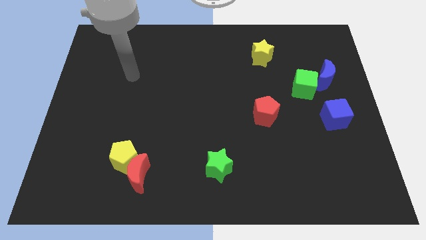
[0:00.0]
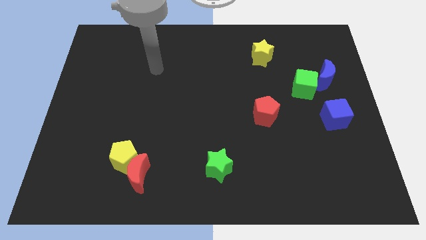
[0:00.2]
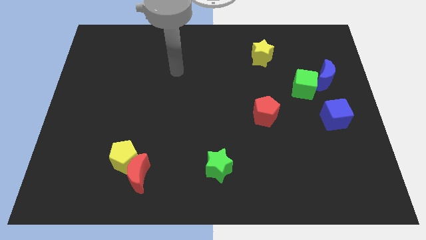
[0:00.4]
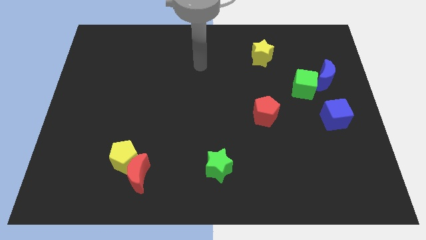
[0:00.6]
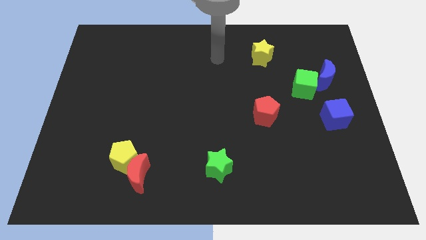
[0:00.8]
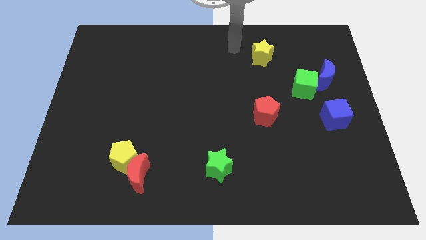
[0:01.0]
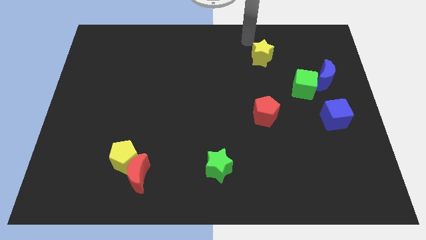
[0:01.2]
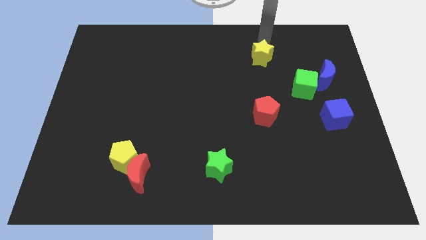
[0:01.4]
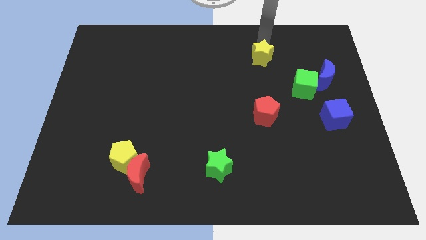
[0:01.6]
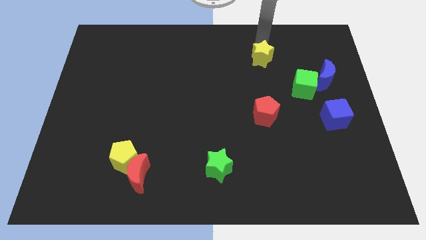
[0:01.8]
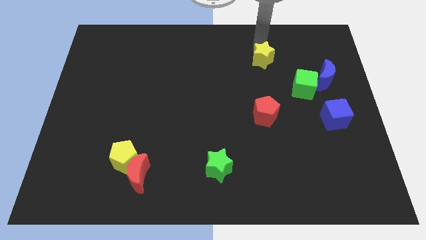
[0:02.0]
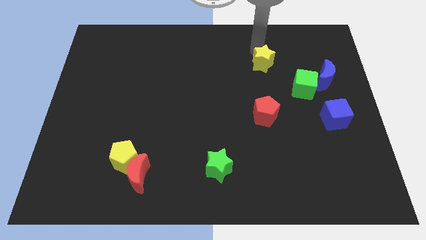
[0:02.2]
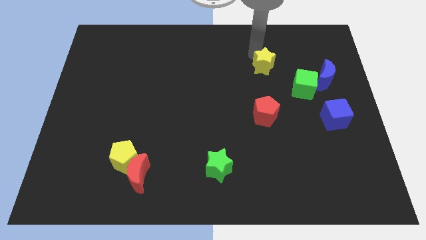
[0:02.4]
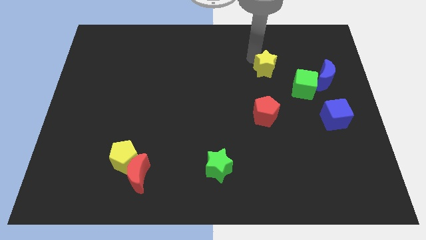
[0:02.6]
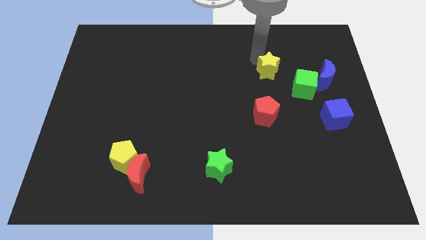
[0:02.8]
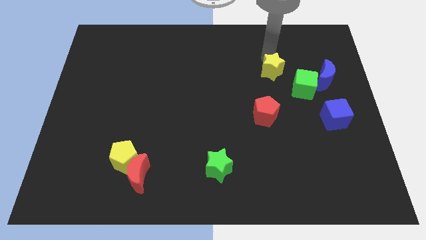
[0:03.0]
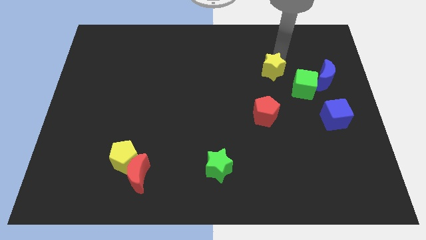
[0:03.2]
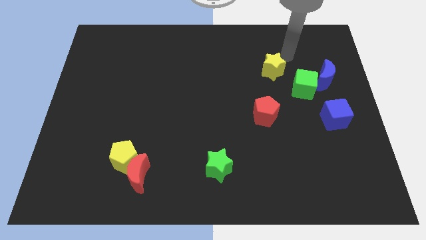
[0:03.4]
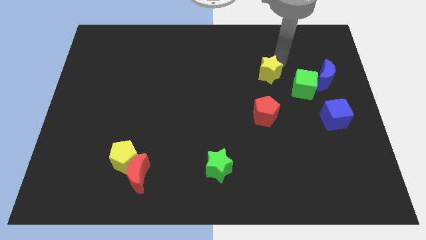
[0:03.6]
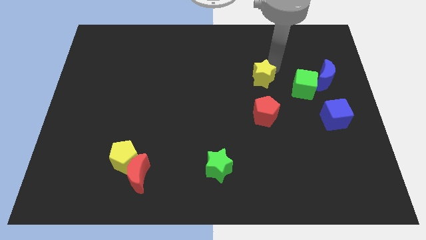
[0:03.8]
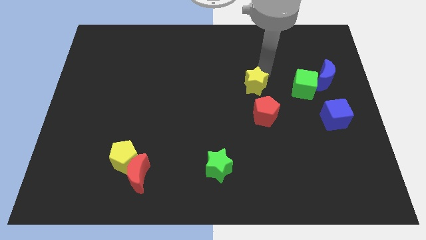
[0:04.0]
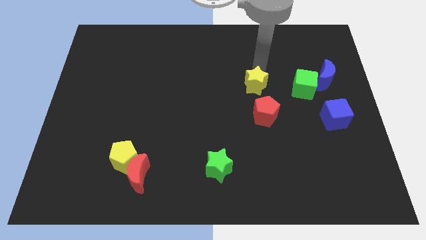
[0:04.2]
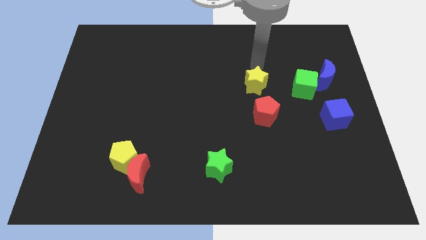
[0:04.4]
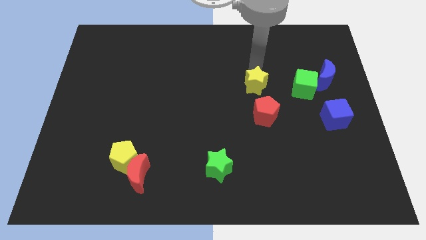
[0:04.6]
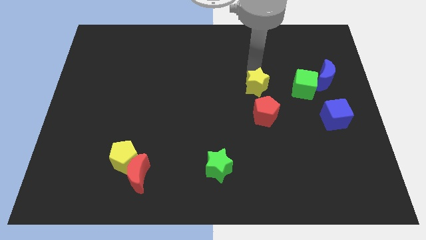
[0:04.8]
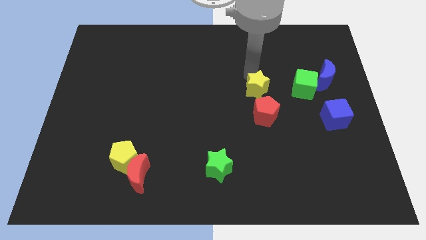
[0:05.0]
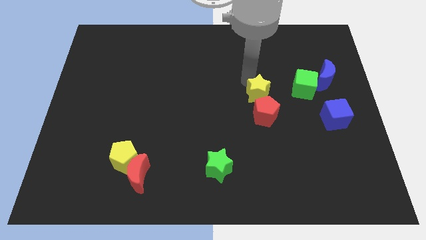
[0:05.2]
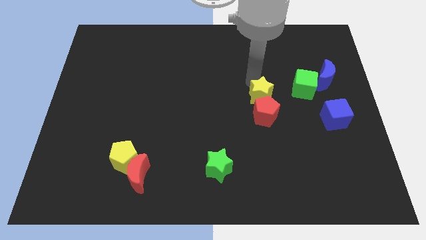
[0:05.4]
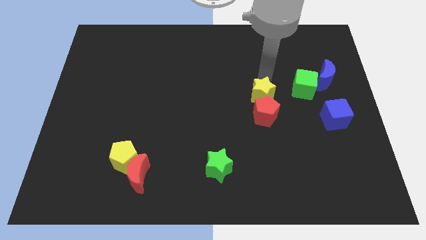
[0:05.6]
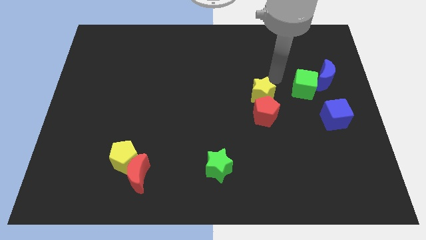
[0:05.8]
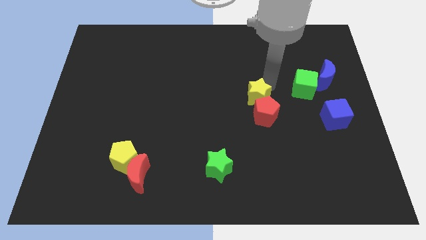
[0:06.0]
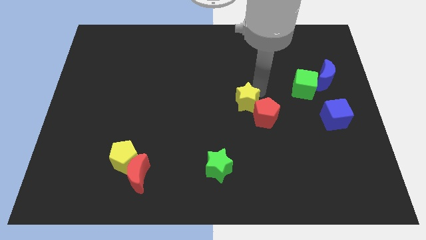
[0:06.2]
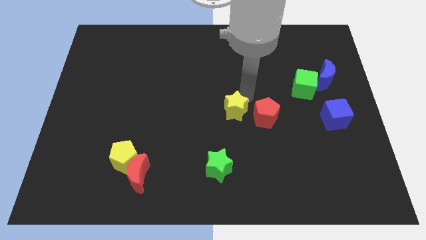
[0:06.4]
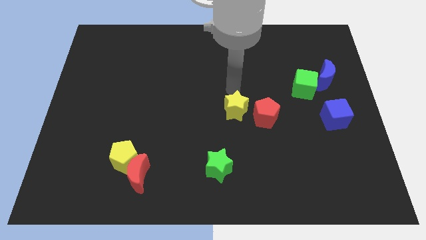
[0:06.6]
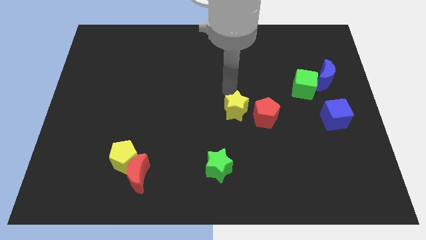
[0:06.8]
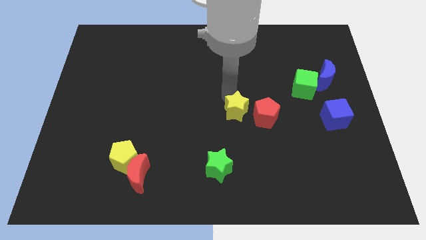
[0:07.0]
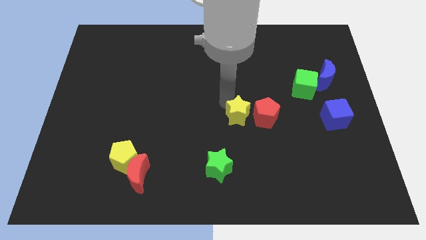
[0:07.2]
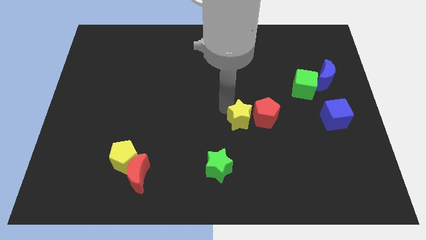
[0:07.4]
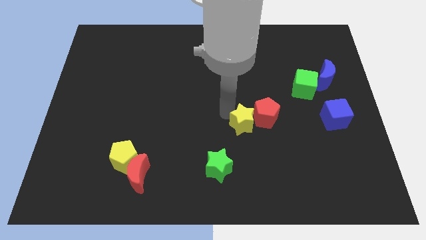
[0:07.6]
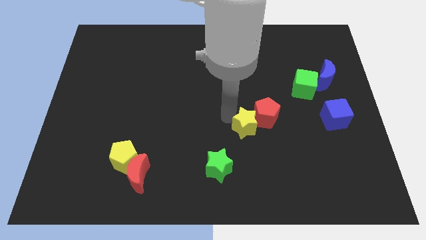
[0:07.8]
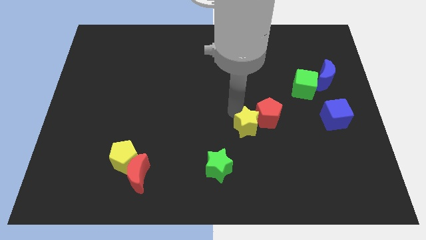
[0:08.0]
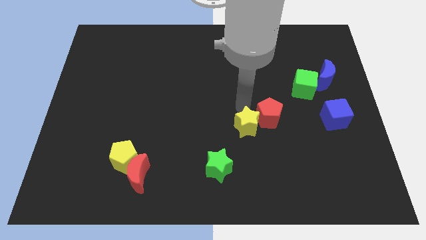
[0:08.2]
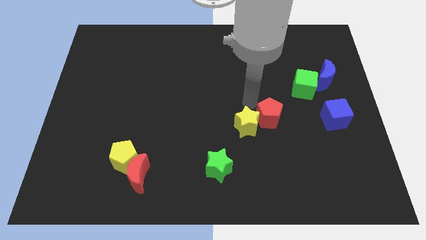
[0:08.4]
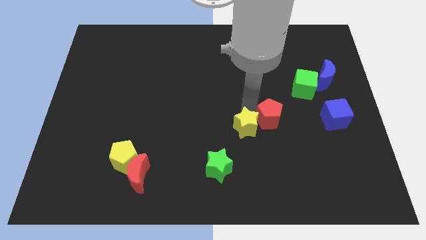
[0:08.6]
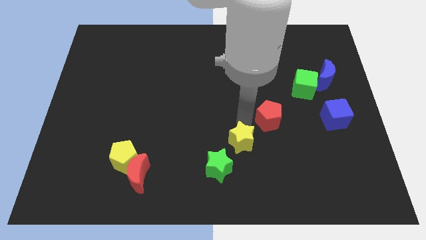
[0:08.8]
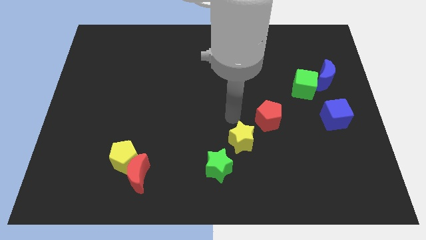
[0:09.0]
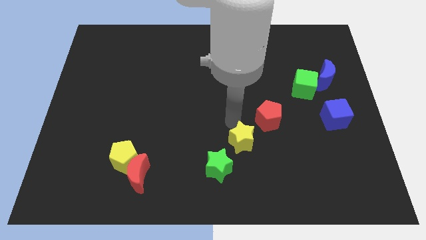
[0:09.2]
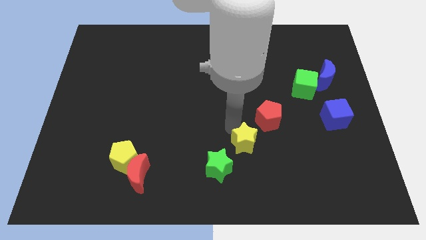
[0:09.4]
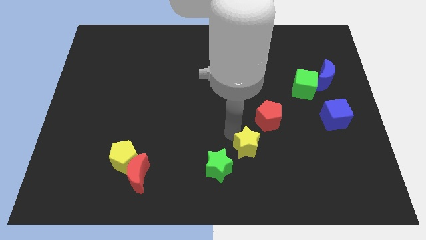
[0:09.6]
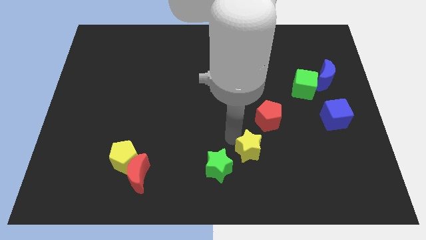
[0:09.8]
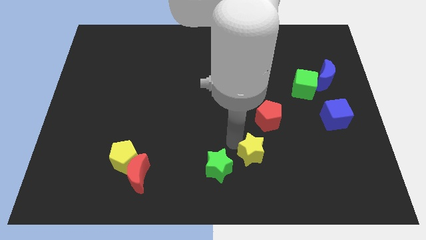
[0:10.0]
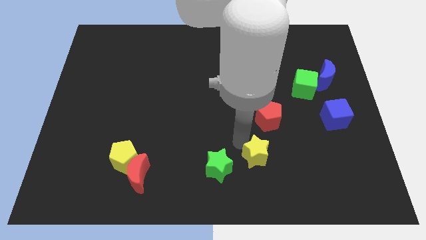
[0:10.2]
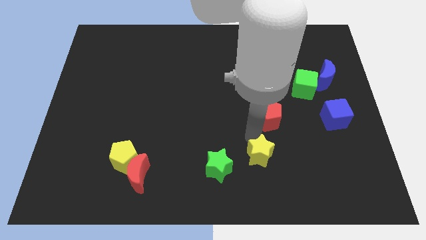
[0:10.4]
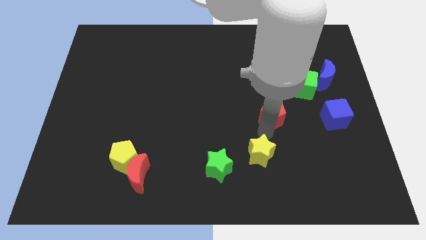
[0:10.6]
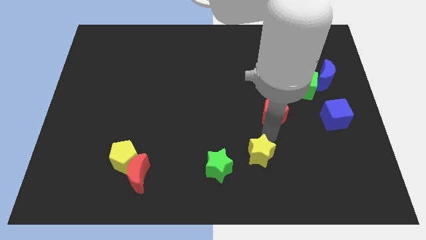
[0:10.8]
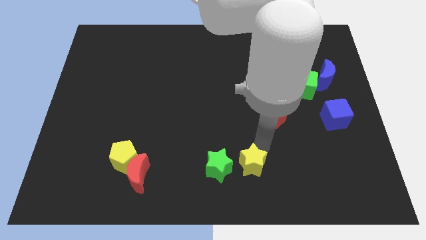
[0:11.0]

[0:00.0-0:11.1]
put the yellow star to the bottom

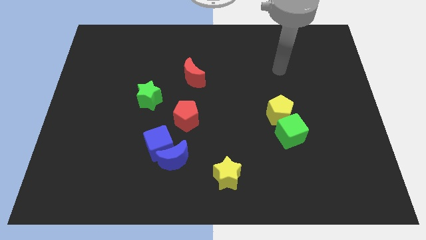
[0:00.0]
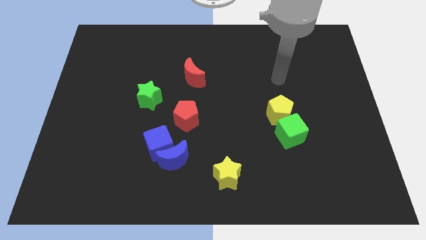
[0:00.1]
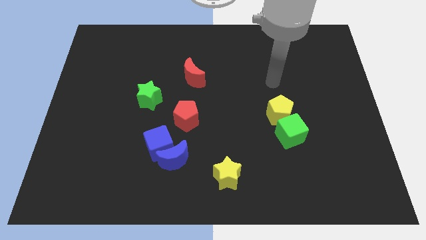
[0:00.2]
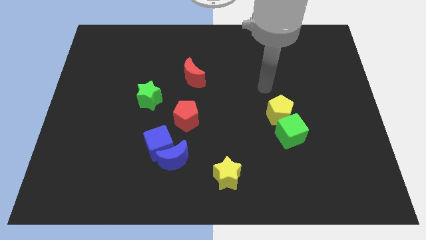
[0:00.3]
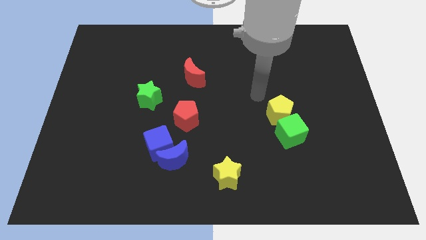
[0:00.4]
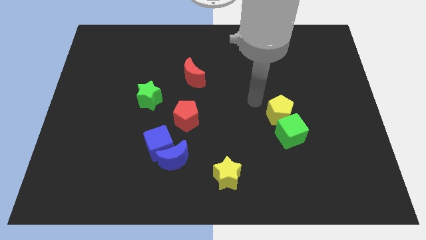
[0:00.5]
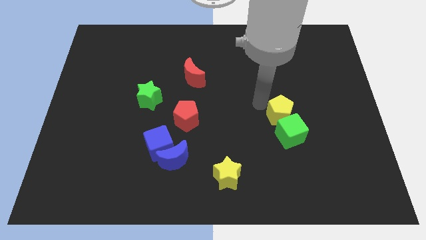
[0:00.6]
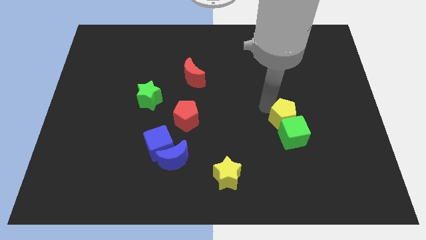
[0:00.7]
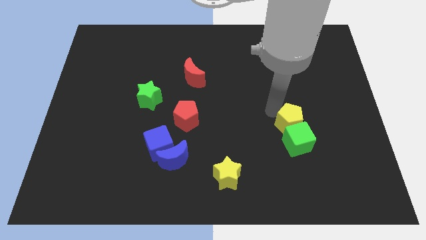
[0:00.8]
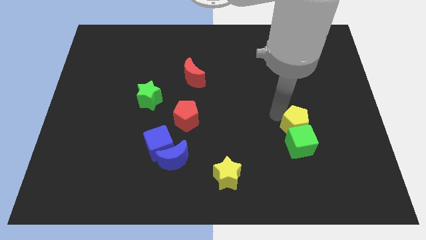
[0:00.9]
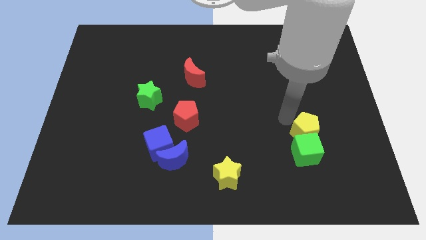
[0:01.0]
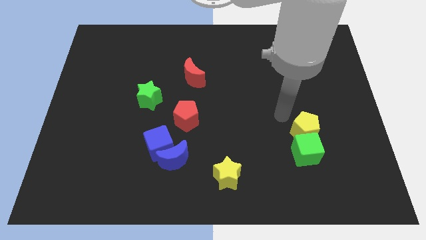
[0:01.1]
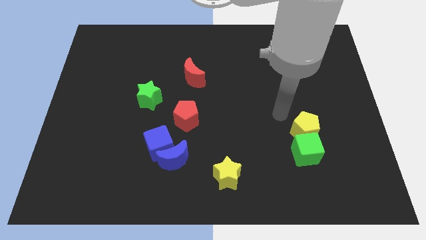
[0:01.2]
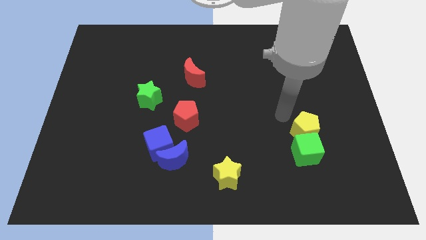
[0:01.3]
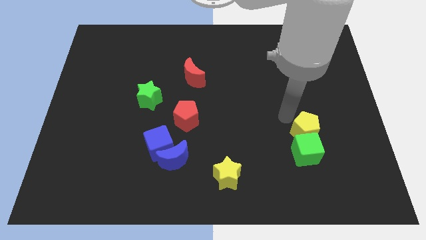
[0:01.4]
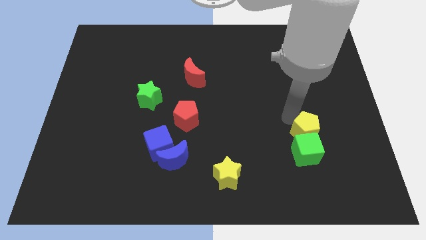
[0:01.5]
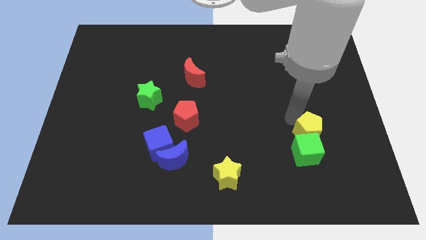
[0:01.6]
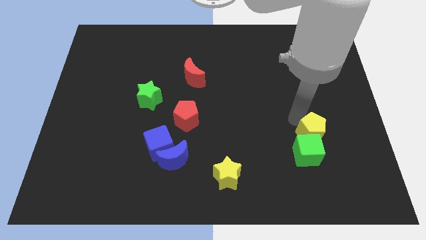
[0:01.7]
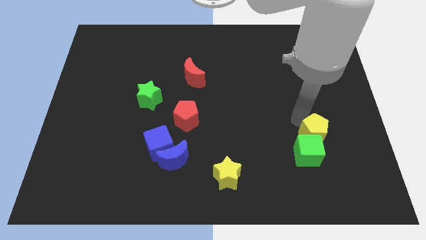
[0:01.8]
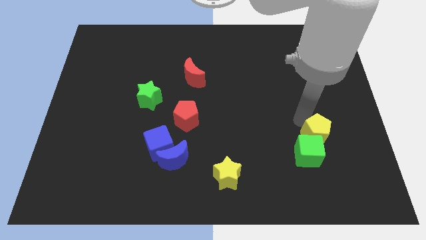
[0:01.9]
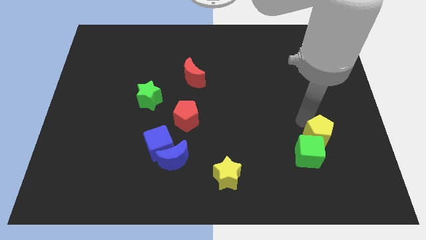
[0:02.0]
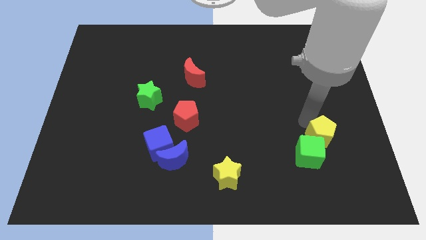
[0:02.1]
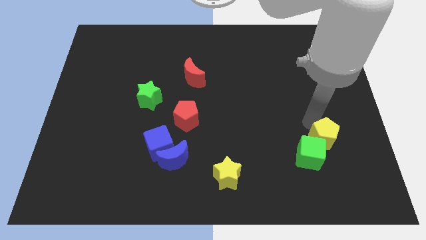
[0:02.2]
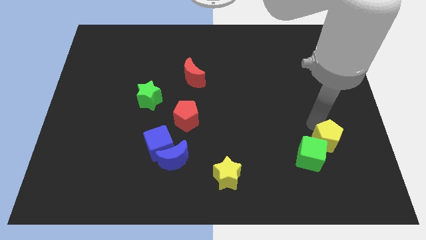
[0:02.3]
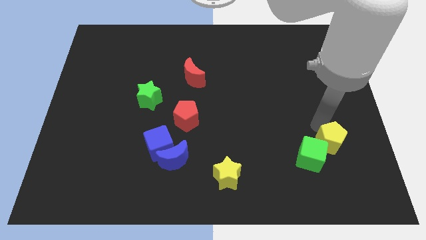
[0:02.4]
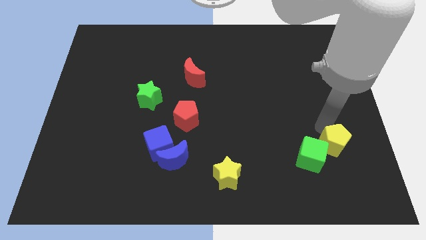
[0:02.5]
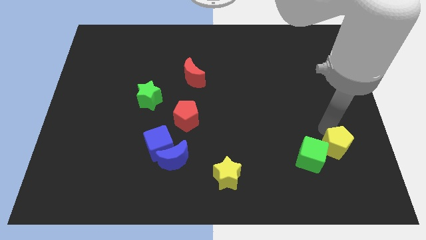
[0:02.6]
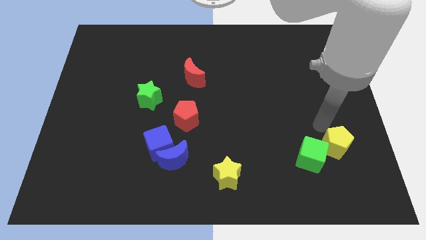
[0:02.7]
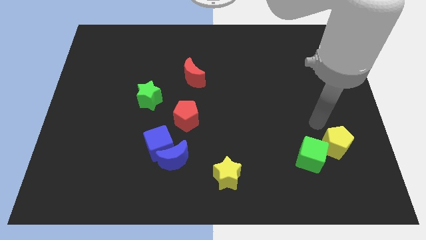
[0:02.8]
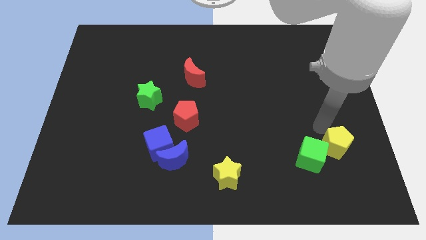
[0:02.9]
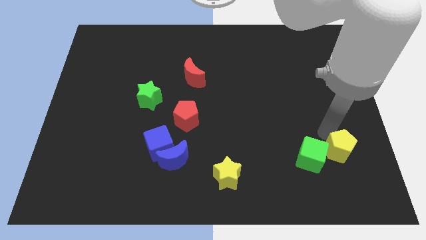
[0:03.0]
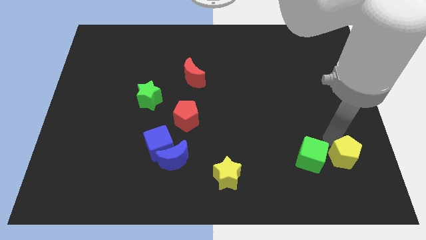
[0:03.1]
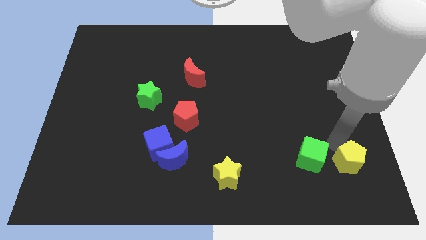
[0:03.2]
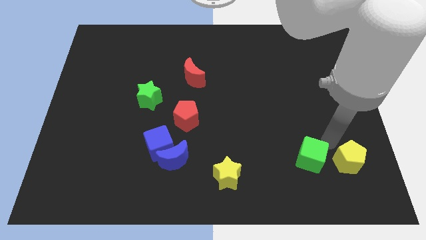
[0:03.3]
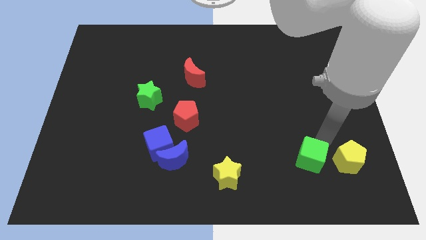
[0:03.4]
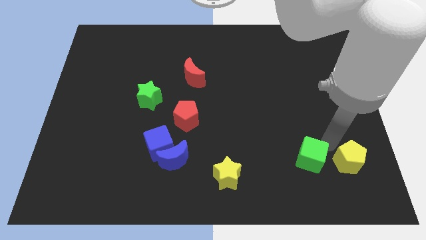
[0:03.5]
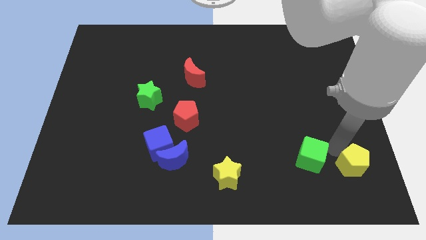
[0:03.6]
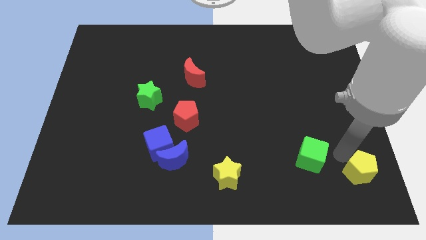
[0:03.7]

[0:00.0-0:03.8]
slide the yellow pentagon to the bottom right
